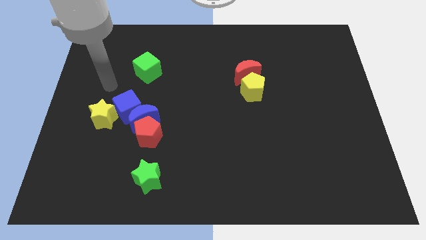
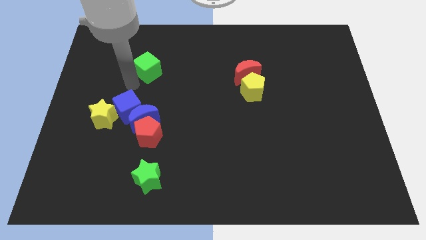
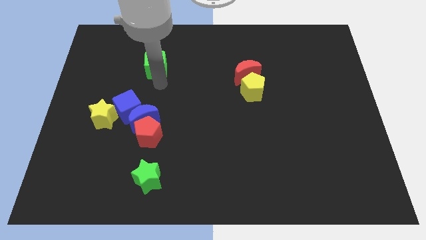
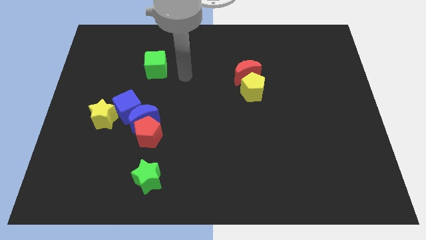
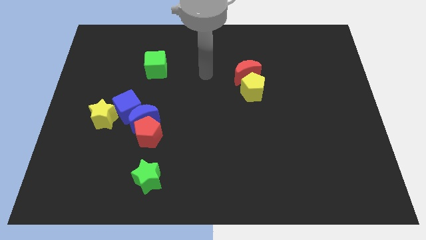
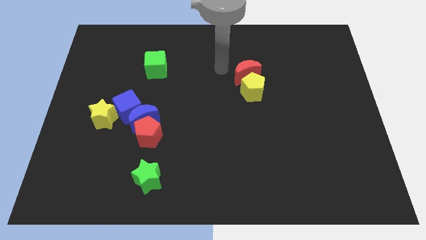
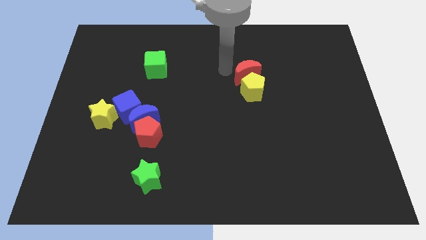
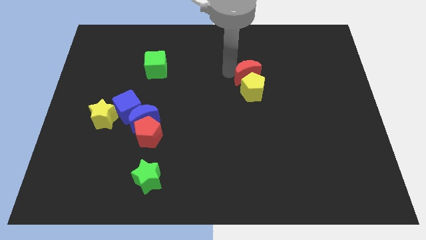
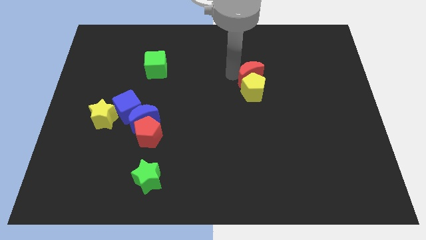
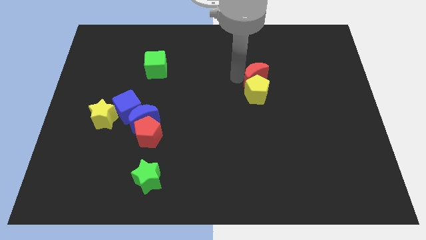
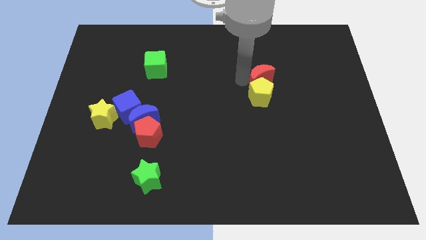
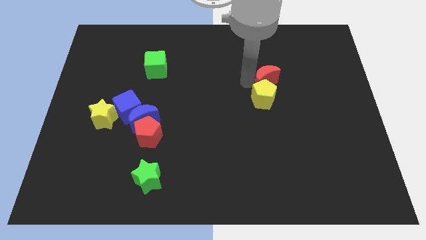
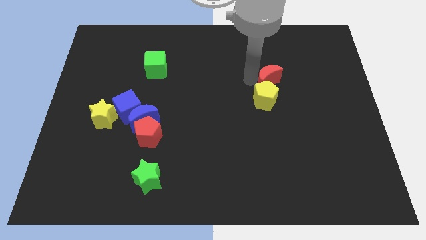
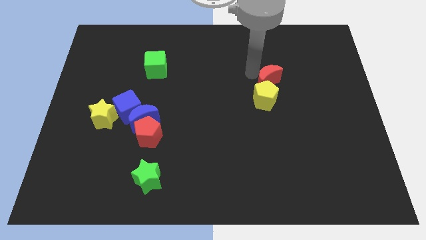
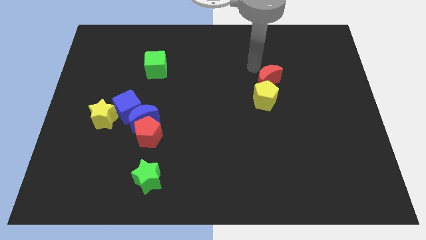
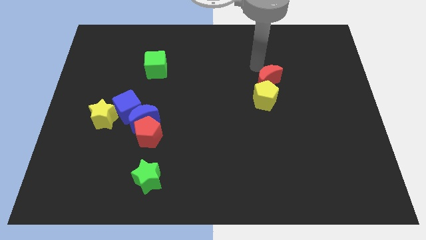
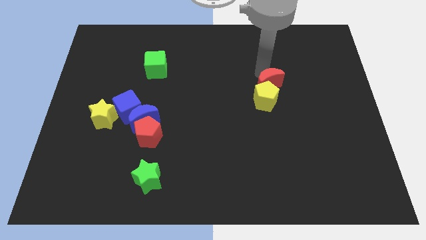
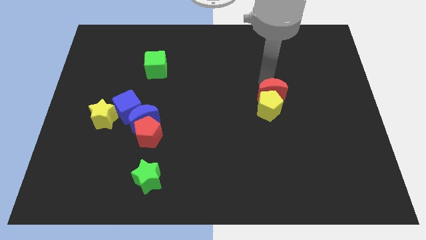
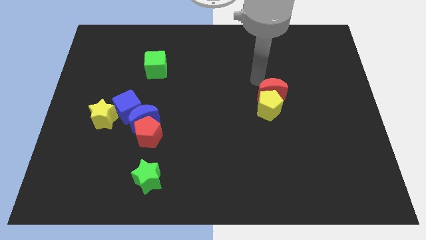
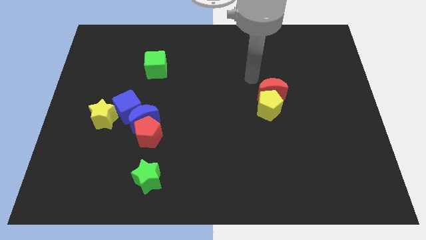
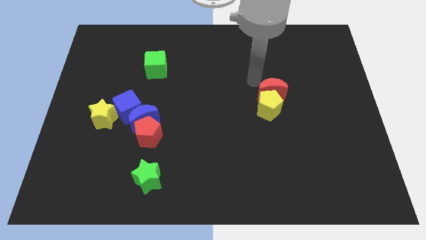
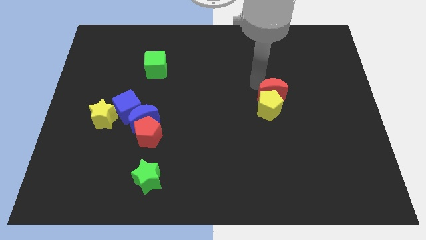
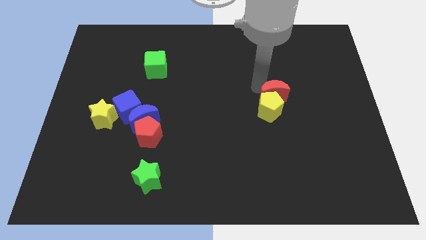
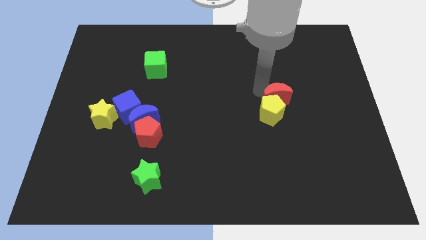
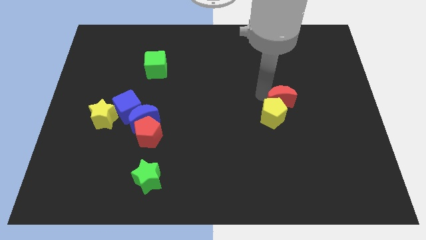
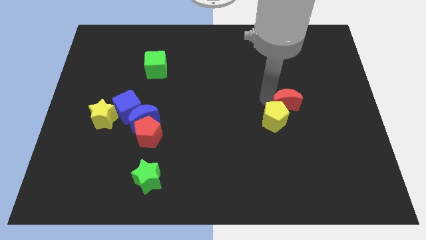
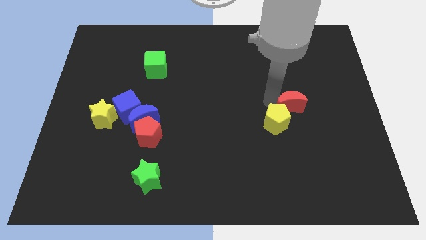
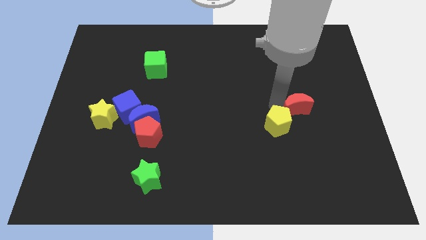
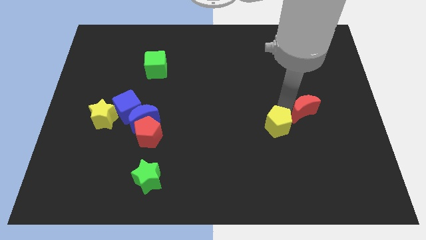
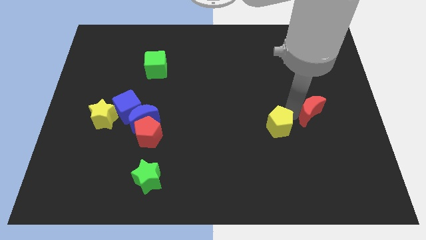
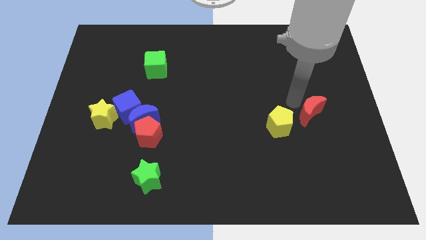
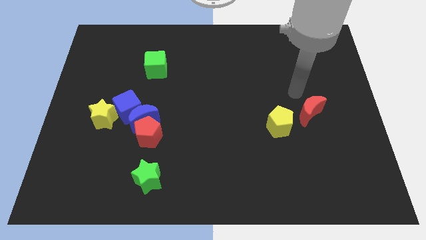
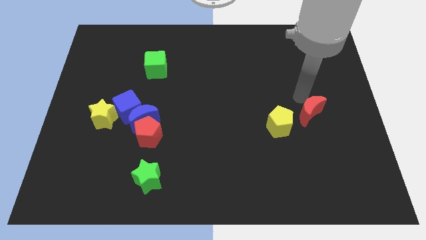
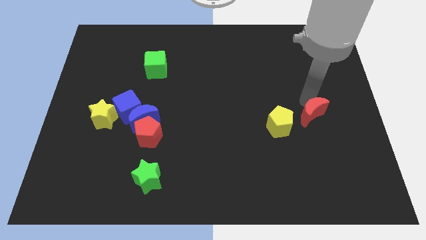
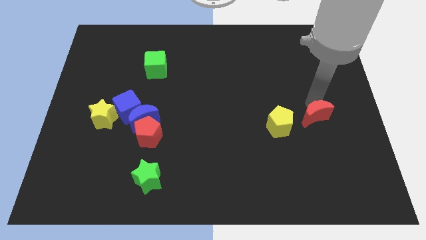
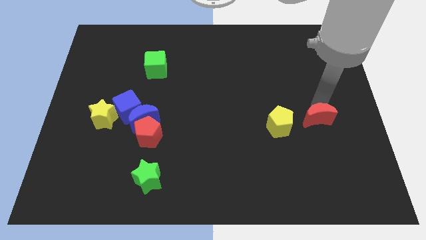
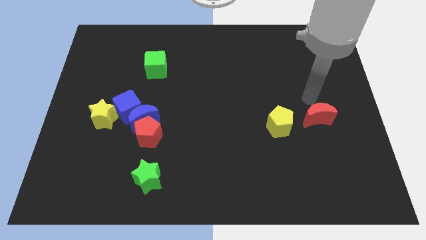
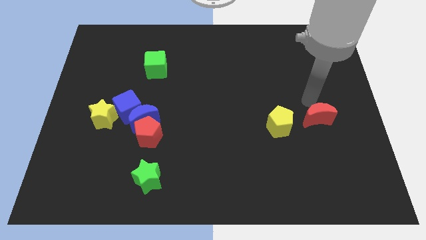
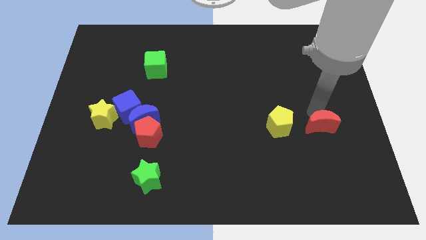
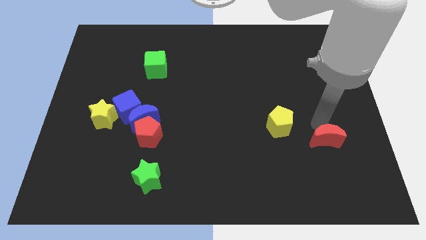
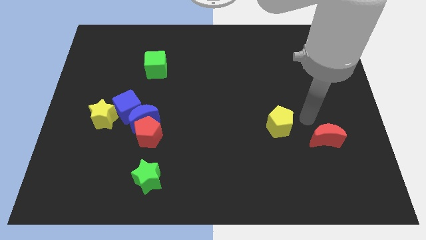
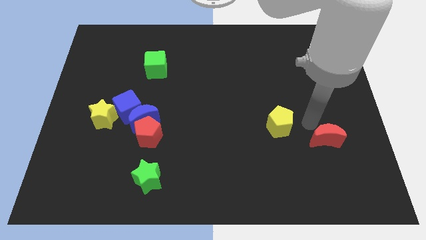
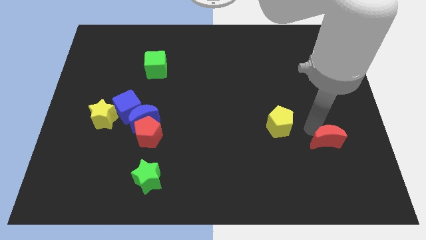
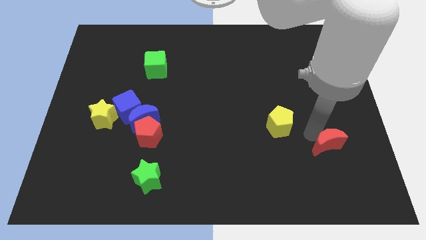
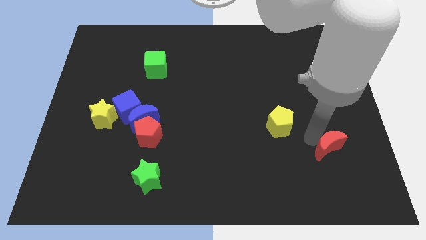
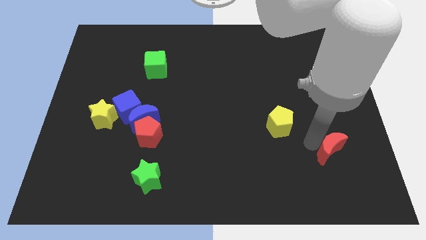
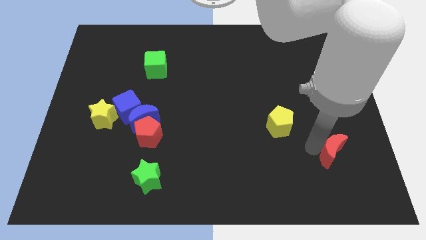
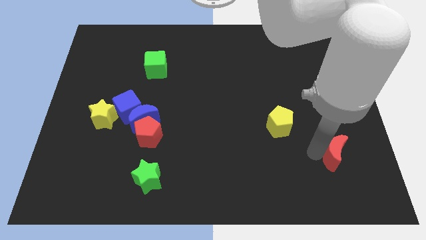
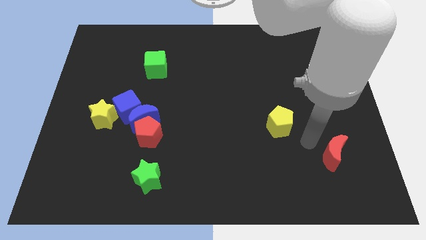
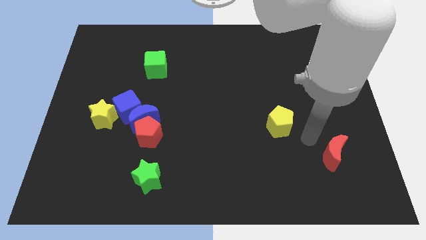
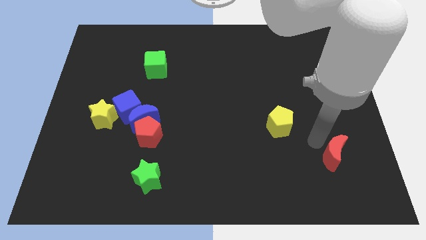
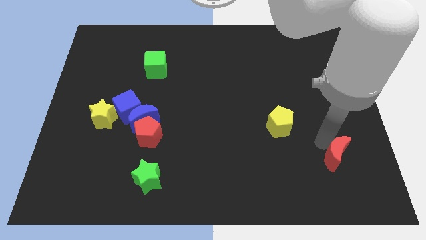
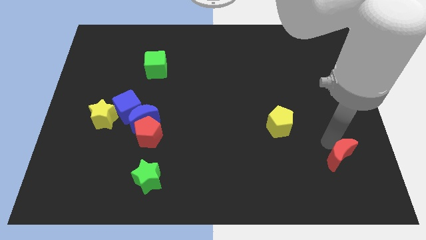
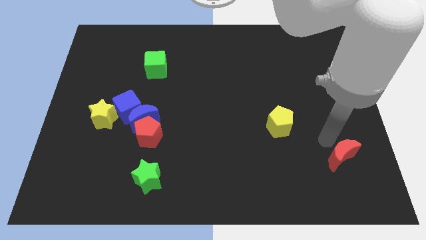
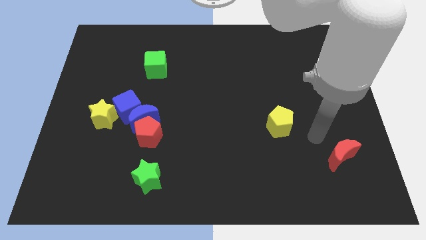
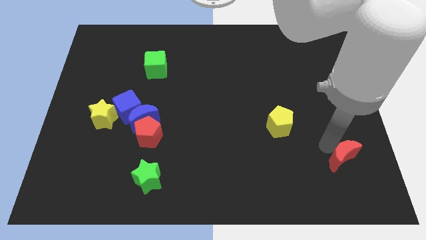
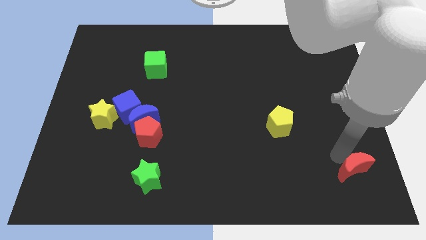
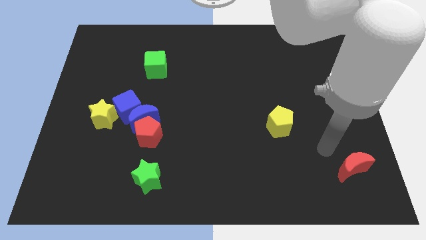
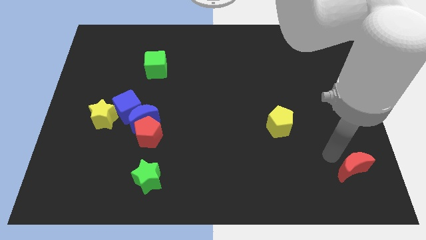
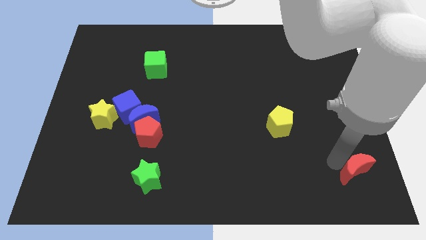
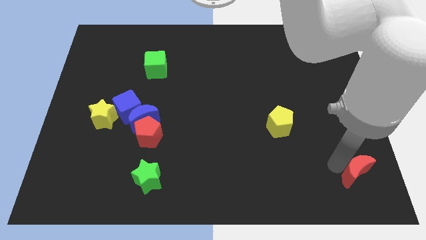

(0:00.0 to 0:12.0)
move the red moon to the bottom right of the board

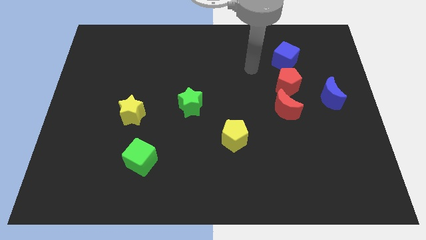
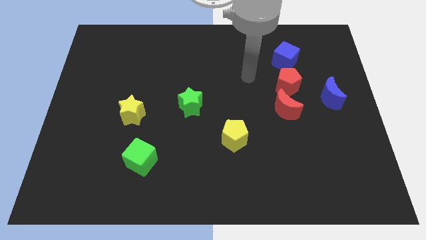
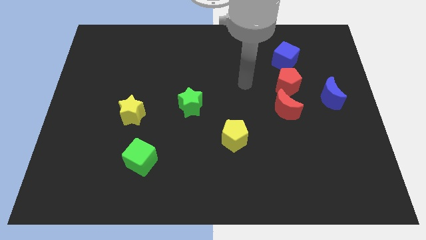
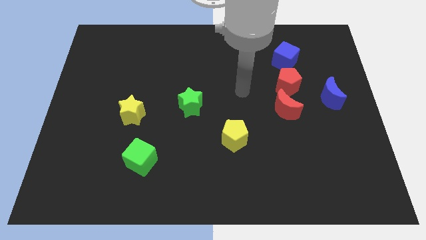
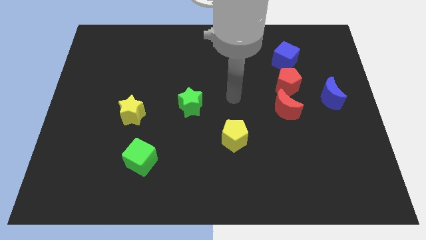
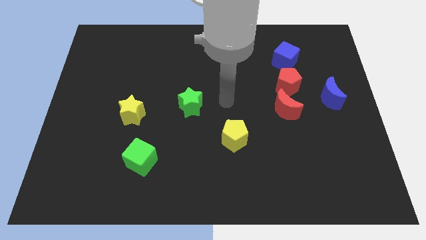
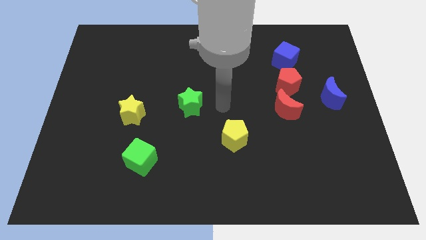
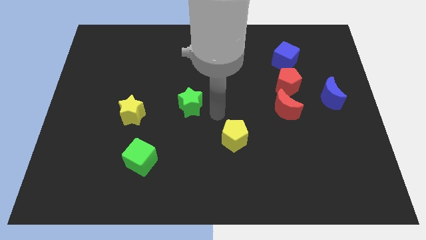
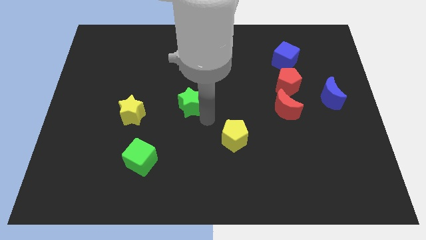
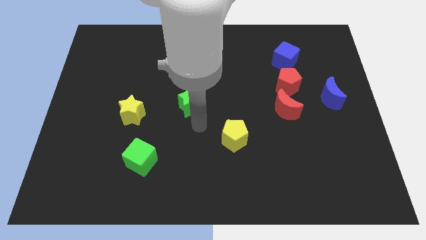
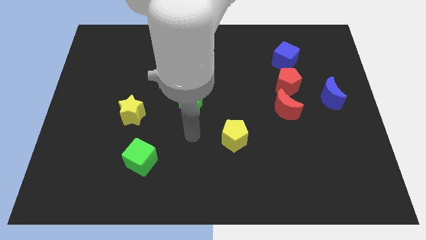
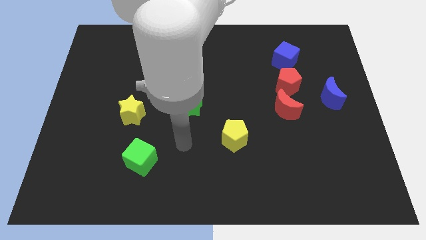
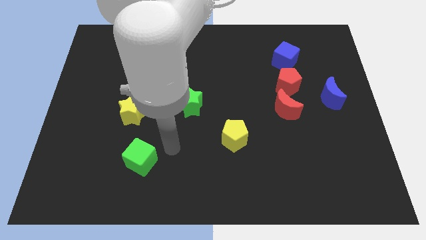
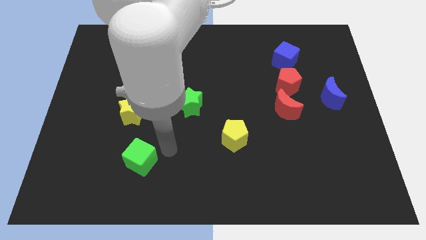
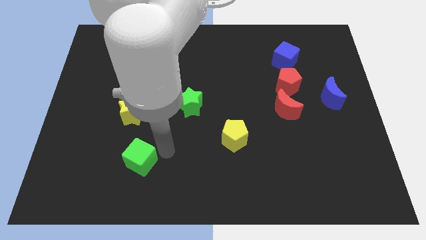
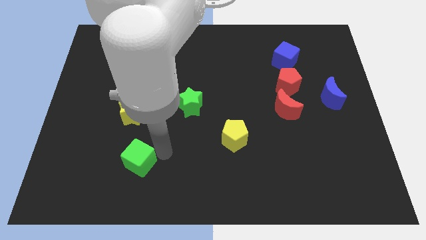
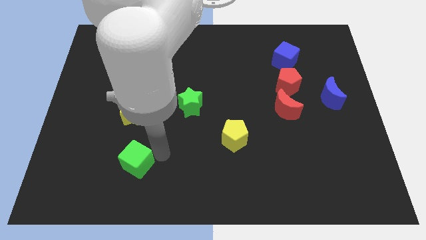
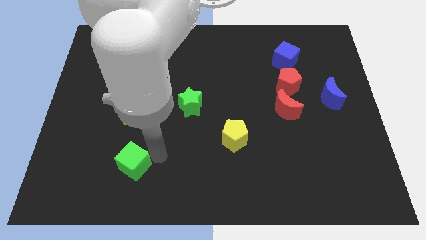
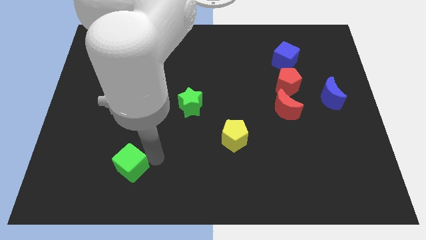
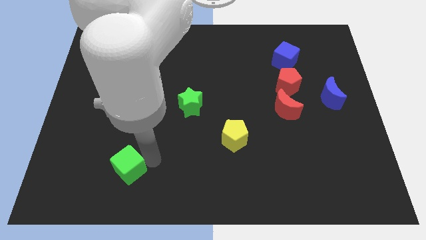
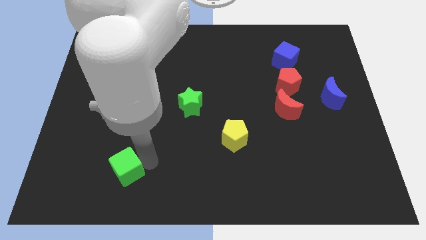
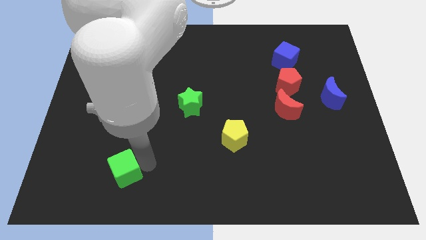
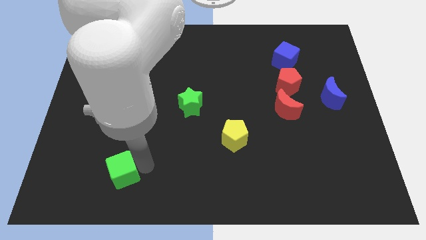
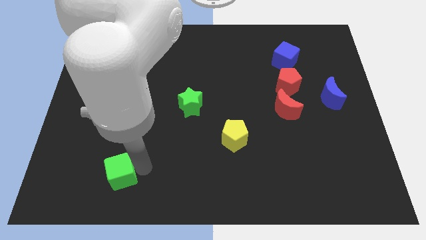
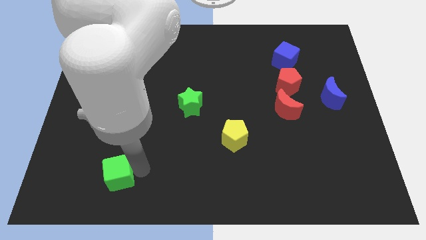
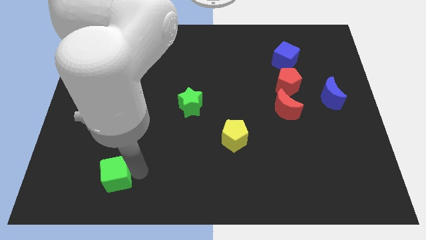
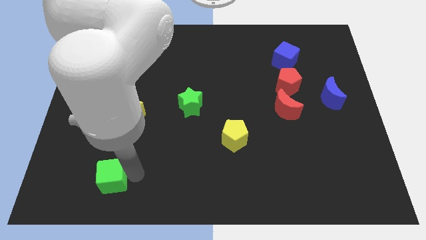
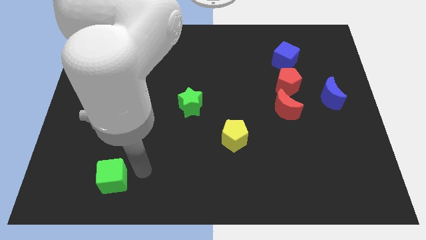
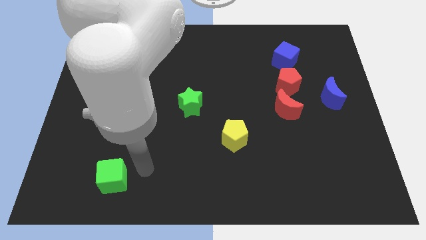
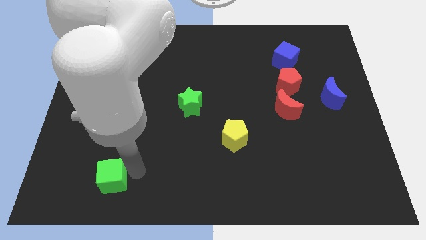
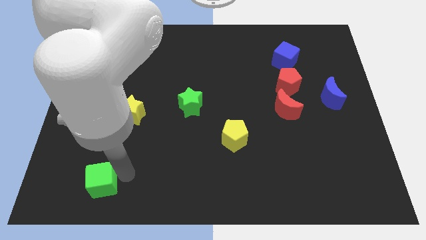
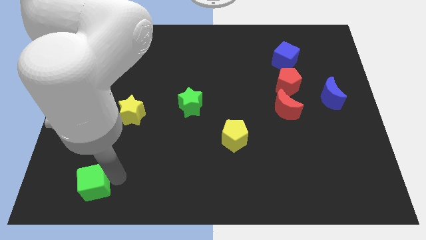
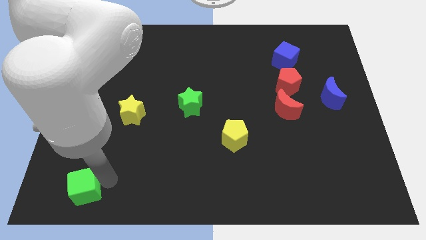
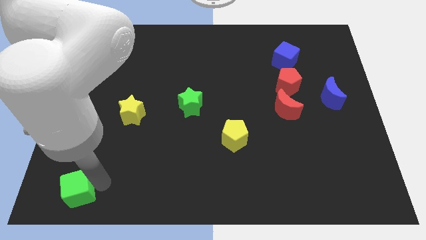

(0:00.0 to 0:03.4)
put the green cube to the lower left corner
